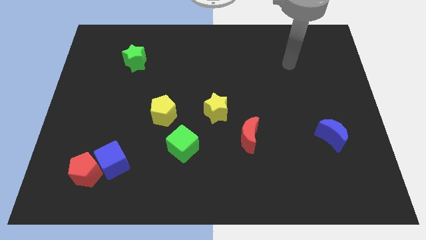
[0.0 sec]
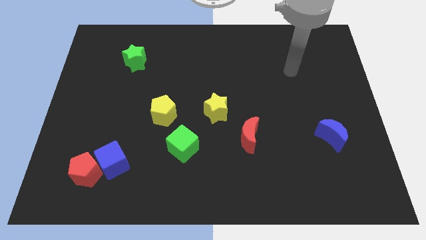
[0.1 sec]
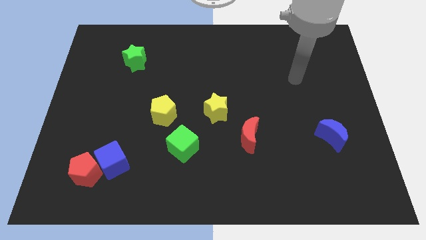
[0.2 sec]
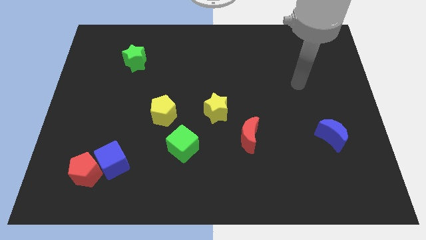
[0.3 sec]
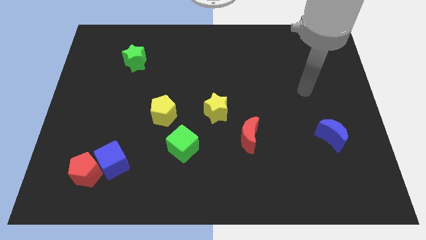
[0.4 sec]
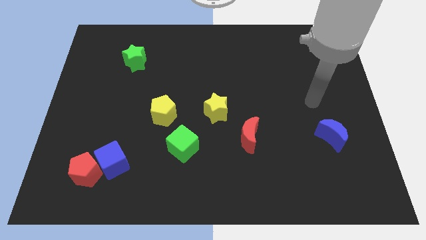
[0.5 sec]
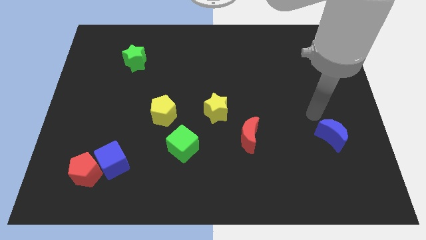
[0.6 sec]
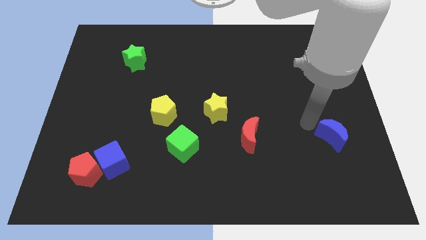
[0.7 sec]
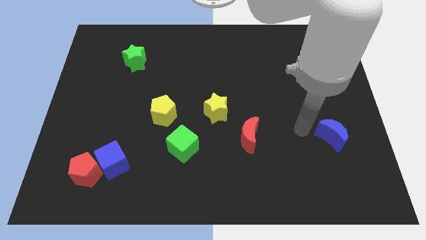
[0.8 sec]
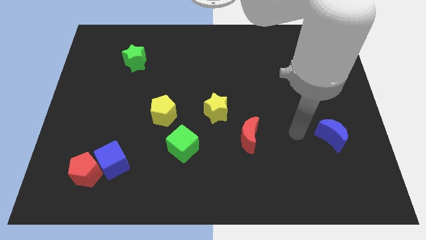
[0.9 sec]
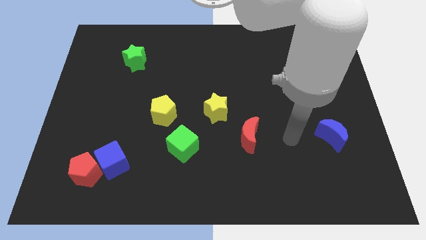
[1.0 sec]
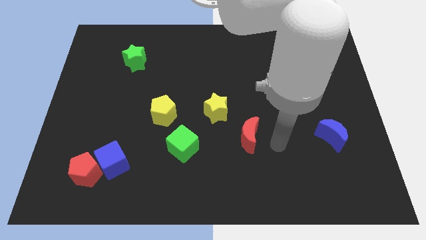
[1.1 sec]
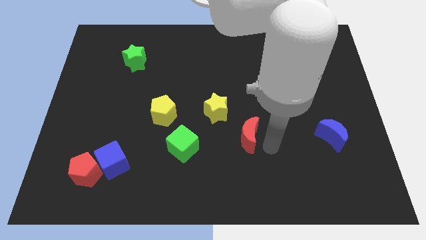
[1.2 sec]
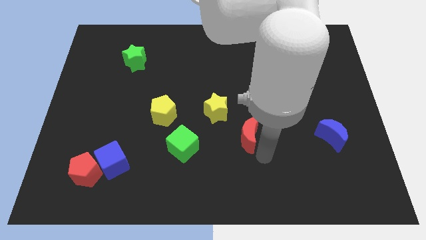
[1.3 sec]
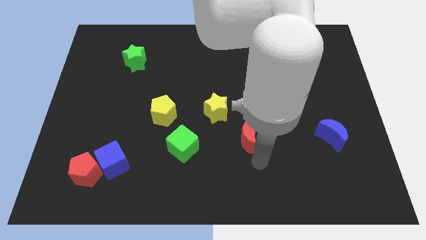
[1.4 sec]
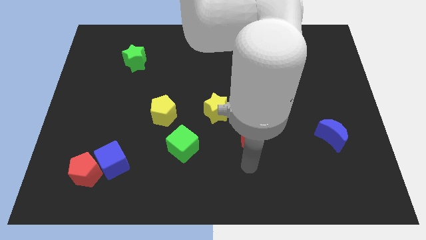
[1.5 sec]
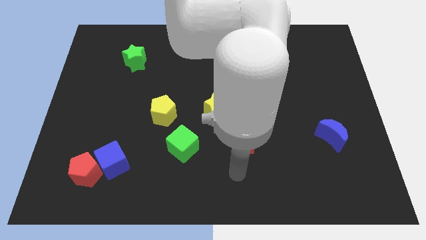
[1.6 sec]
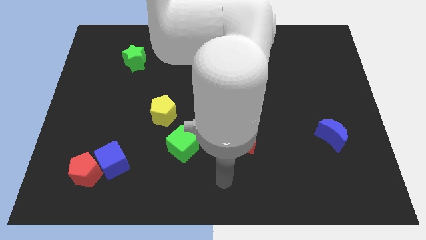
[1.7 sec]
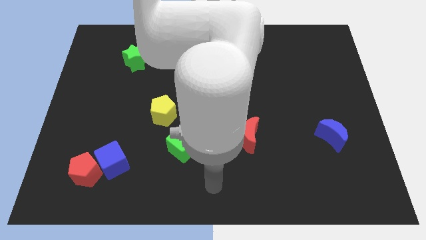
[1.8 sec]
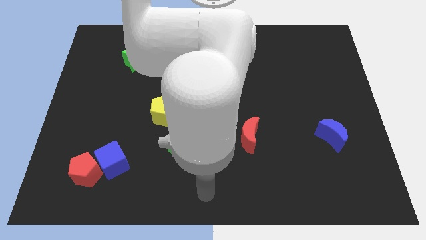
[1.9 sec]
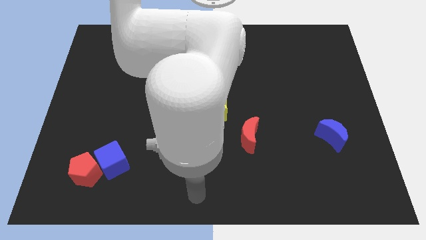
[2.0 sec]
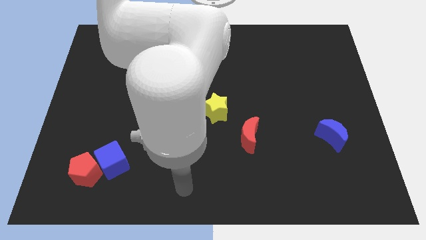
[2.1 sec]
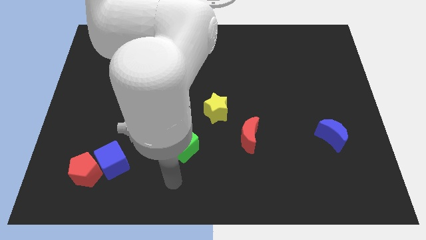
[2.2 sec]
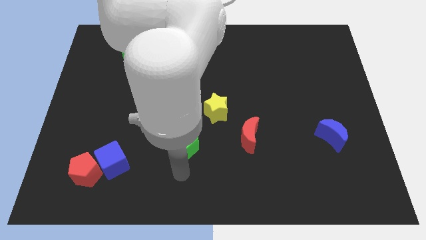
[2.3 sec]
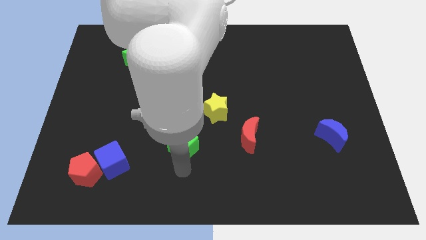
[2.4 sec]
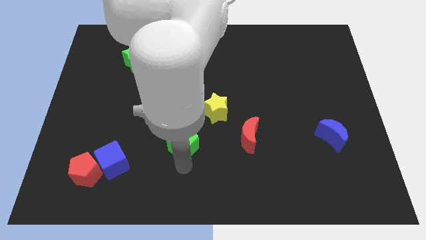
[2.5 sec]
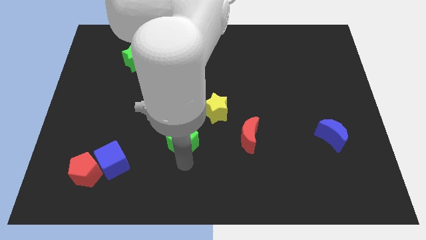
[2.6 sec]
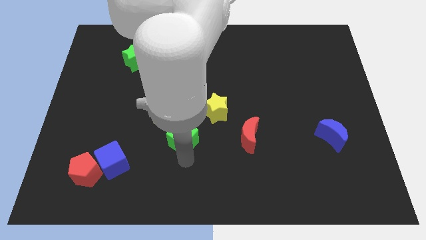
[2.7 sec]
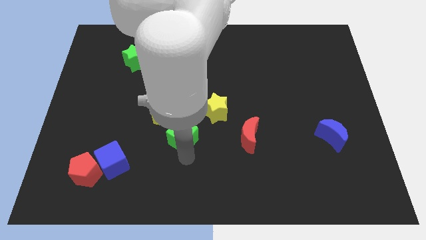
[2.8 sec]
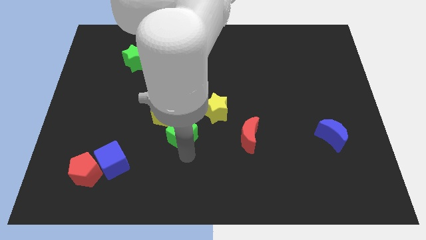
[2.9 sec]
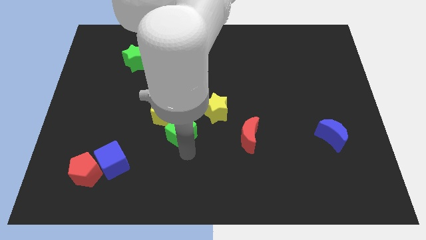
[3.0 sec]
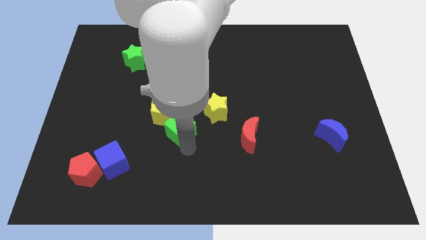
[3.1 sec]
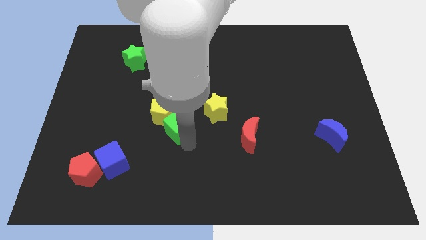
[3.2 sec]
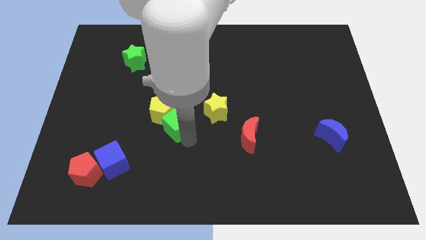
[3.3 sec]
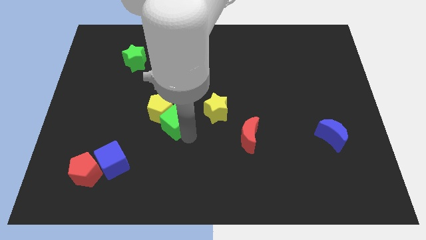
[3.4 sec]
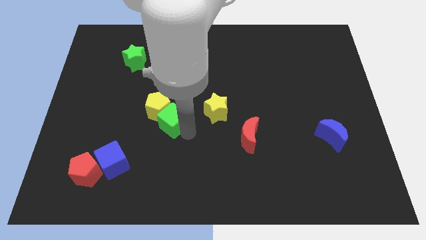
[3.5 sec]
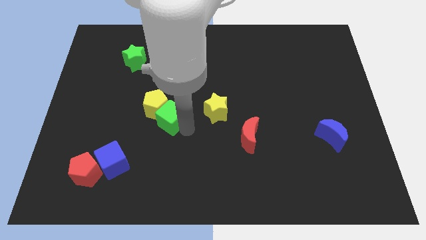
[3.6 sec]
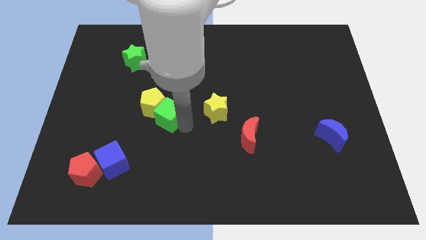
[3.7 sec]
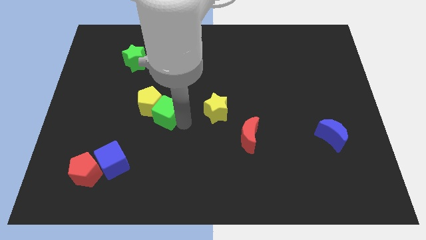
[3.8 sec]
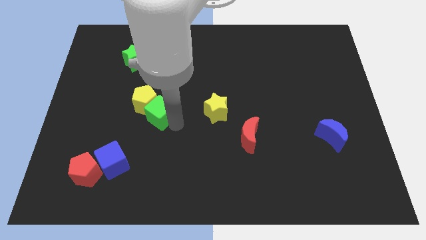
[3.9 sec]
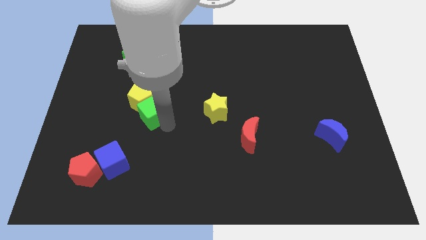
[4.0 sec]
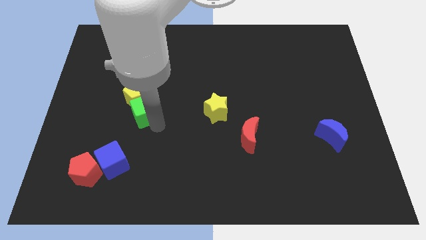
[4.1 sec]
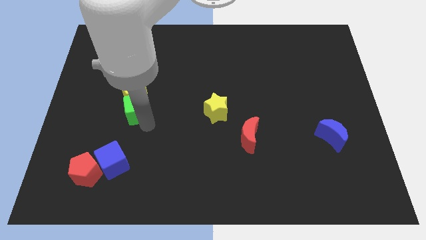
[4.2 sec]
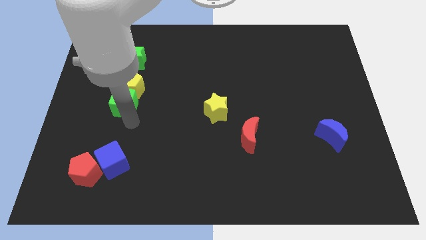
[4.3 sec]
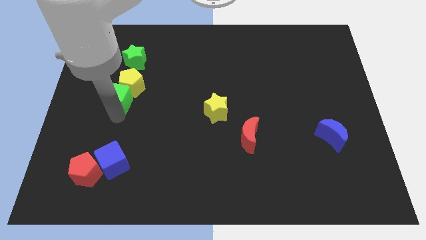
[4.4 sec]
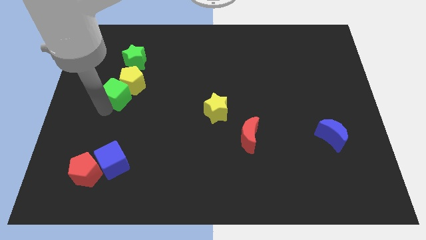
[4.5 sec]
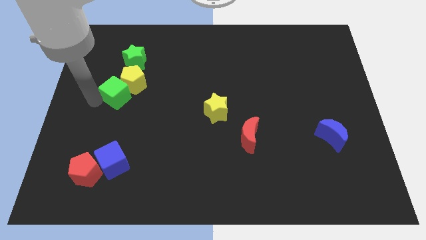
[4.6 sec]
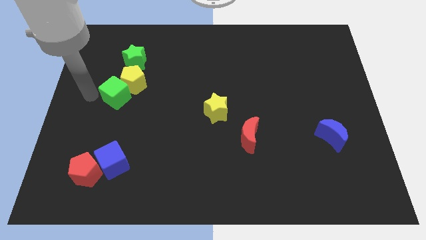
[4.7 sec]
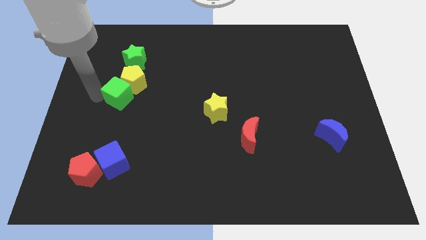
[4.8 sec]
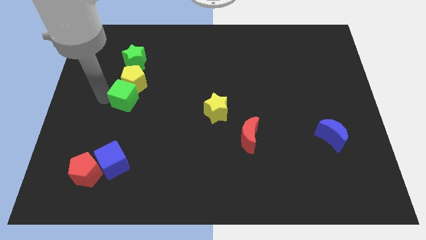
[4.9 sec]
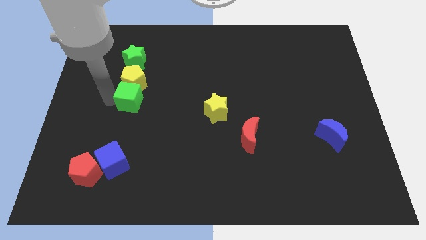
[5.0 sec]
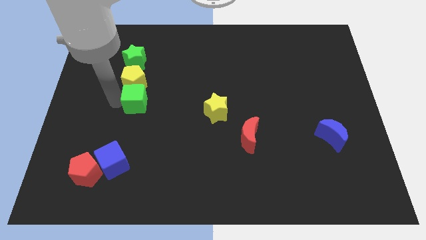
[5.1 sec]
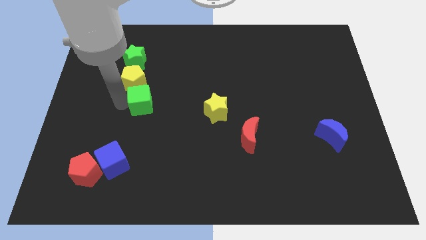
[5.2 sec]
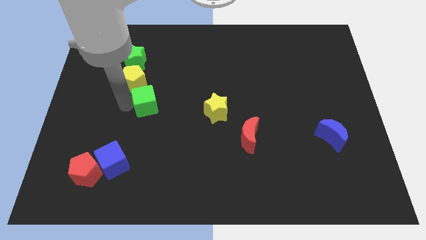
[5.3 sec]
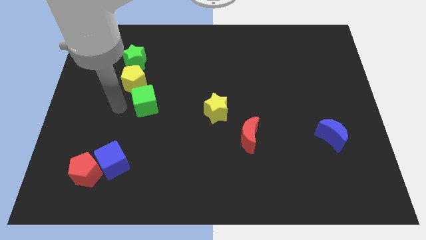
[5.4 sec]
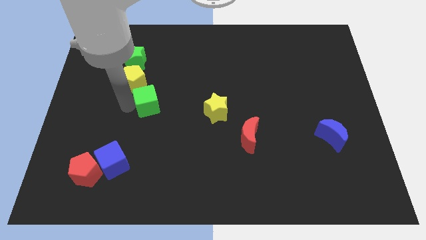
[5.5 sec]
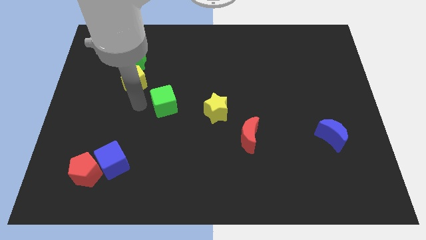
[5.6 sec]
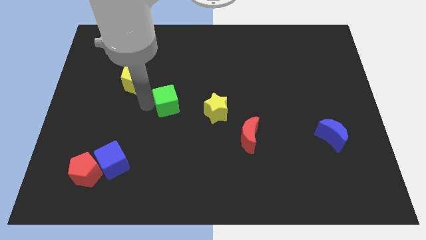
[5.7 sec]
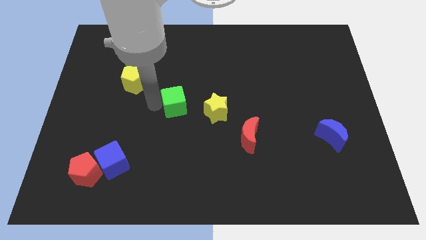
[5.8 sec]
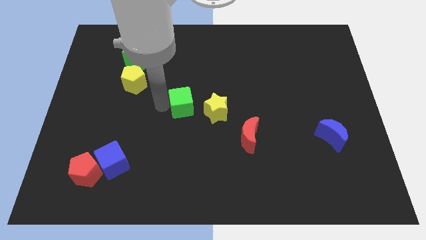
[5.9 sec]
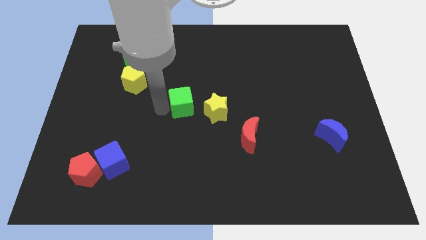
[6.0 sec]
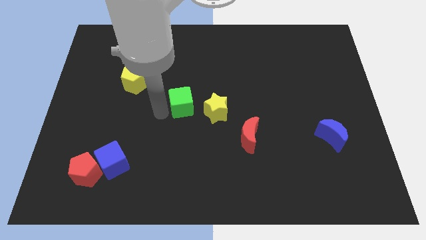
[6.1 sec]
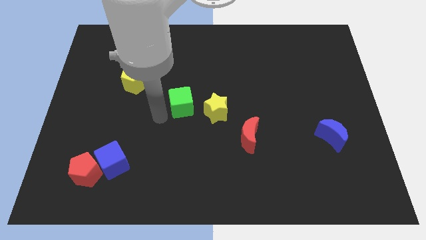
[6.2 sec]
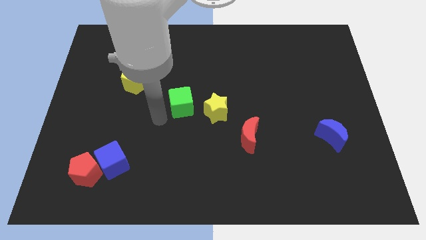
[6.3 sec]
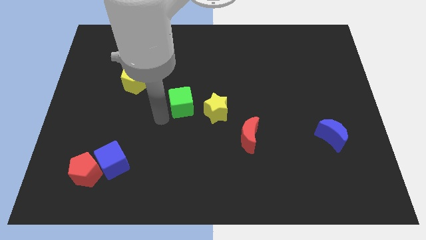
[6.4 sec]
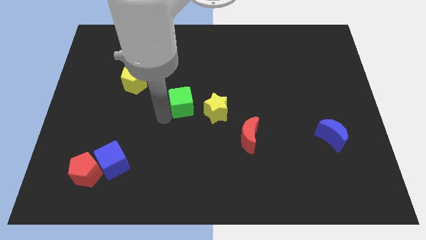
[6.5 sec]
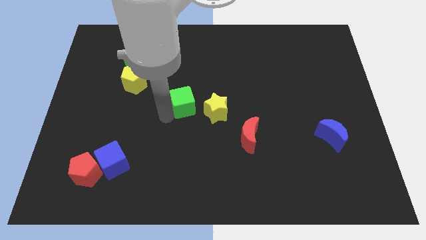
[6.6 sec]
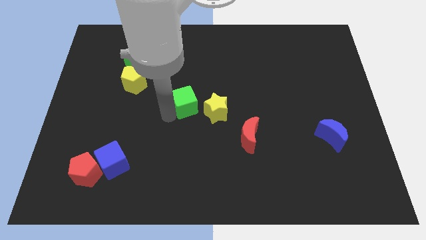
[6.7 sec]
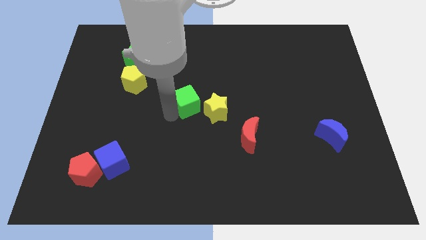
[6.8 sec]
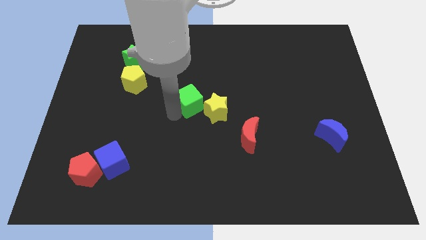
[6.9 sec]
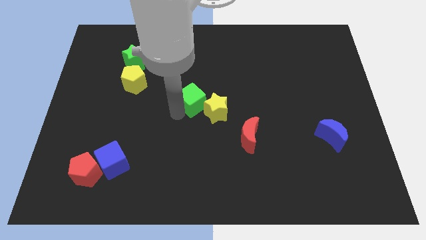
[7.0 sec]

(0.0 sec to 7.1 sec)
slightly push the green cube up and to the right diagonally

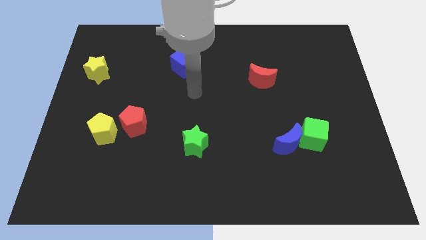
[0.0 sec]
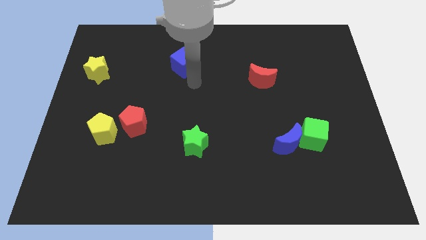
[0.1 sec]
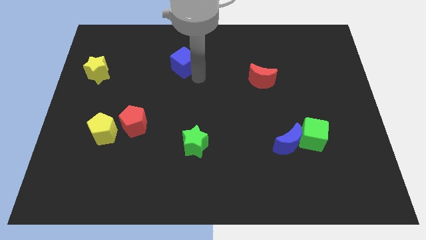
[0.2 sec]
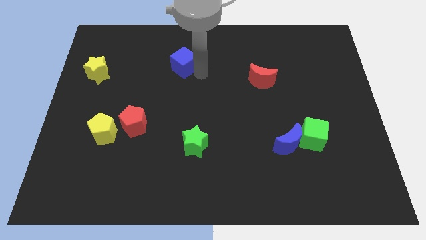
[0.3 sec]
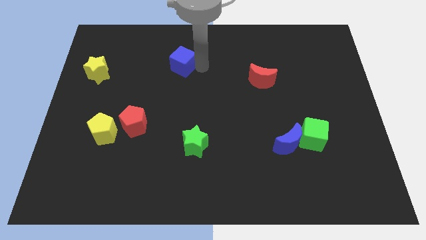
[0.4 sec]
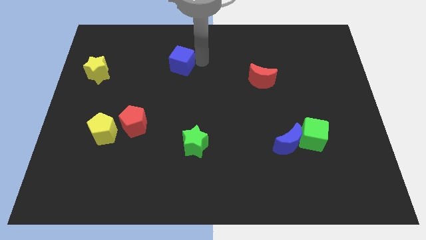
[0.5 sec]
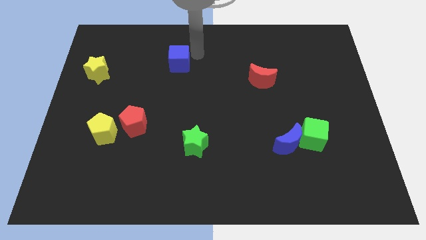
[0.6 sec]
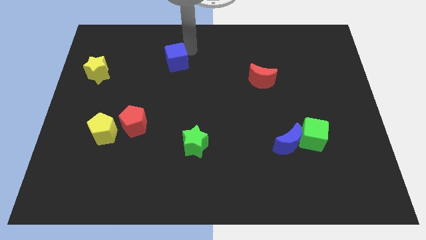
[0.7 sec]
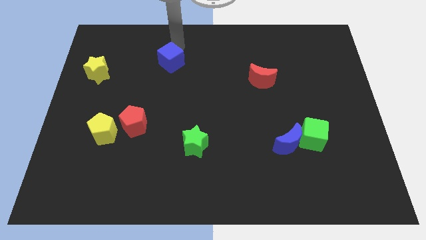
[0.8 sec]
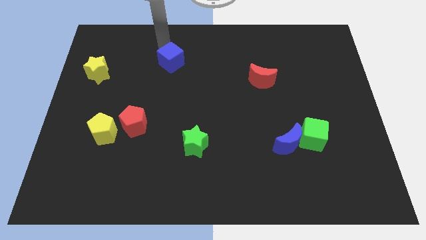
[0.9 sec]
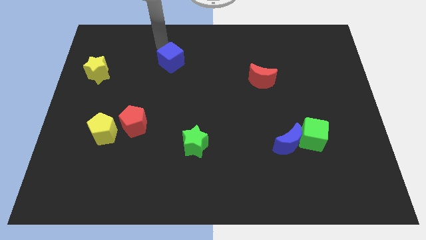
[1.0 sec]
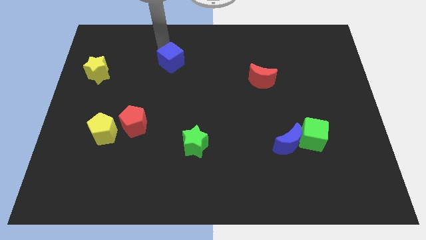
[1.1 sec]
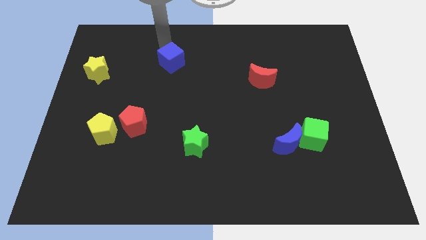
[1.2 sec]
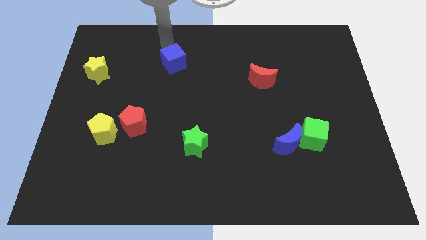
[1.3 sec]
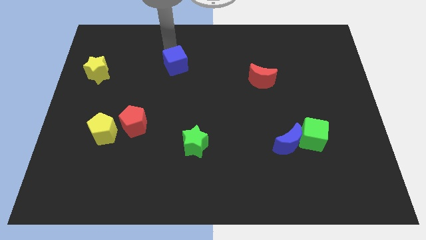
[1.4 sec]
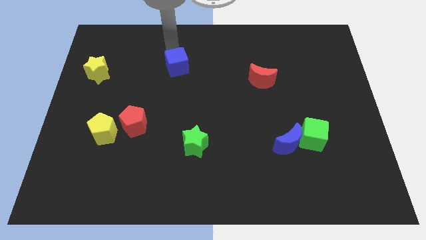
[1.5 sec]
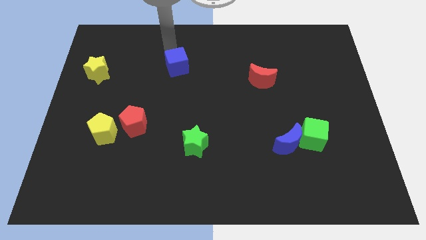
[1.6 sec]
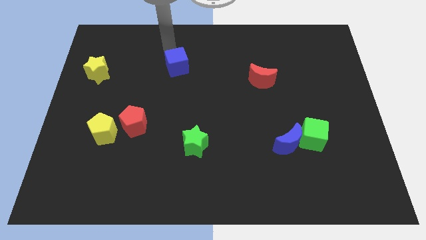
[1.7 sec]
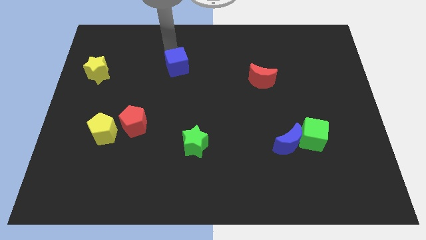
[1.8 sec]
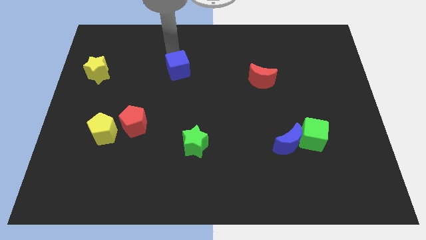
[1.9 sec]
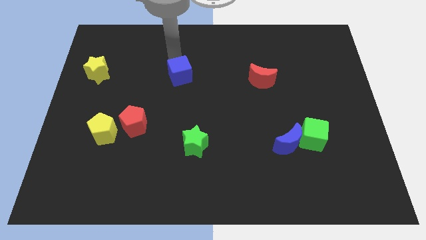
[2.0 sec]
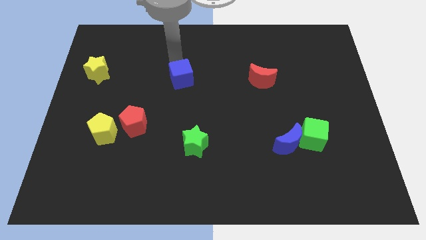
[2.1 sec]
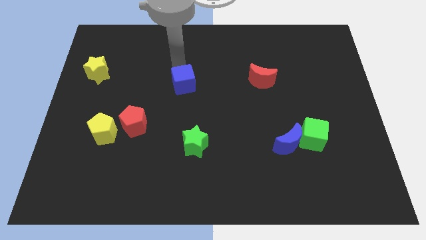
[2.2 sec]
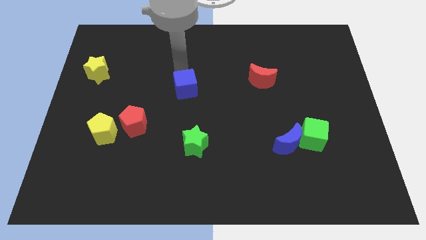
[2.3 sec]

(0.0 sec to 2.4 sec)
slightly move the blue cube down
